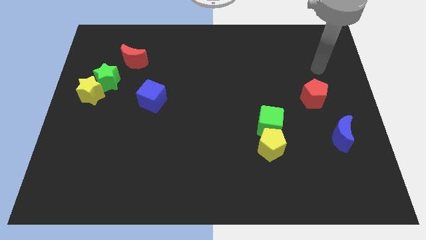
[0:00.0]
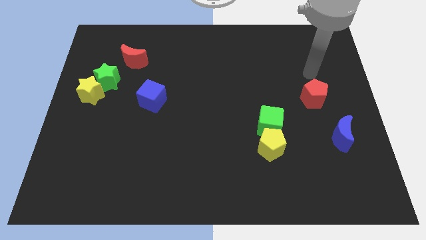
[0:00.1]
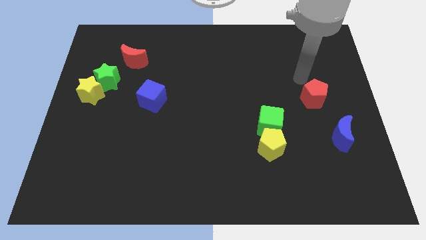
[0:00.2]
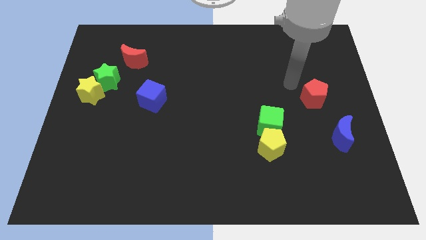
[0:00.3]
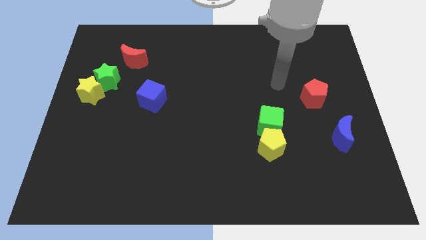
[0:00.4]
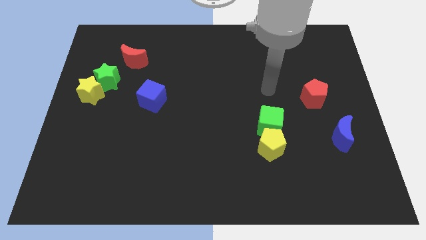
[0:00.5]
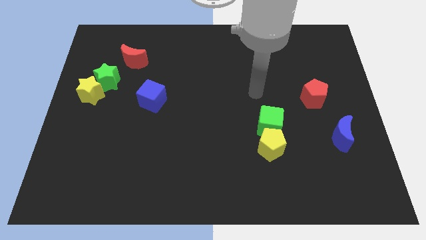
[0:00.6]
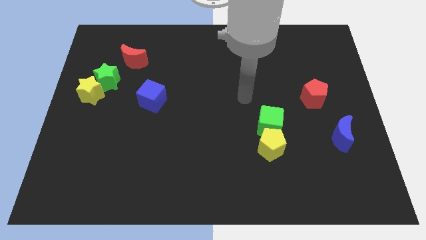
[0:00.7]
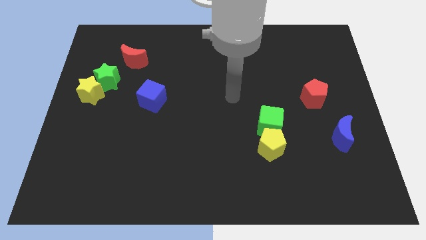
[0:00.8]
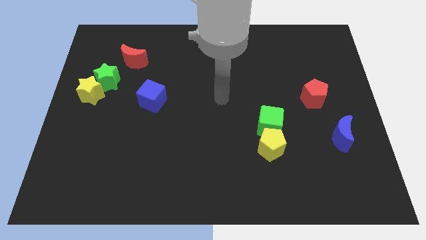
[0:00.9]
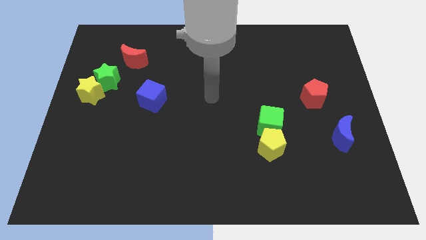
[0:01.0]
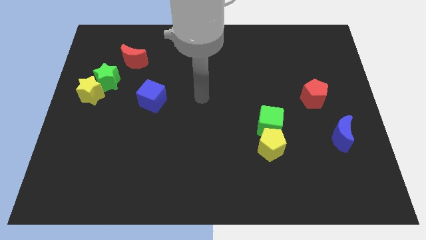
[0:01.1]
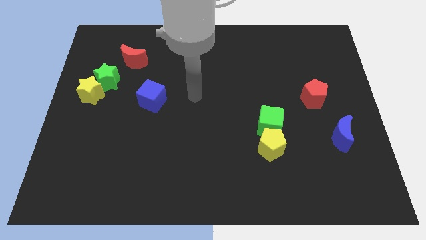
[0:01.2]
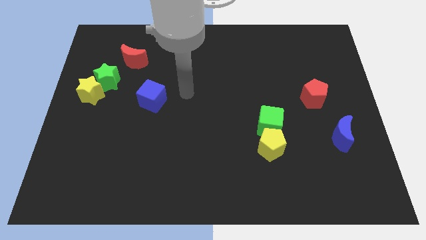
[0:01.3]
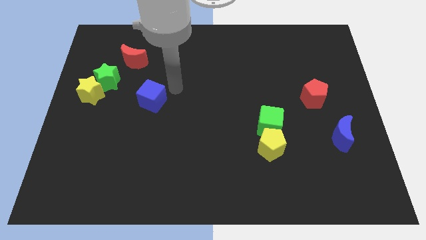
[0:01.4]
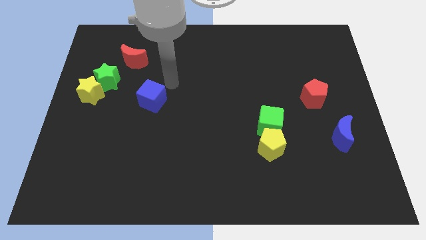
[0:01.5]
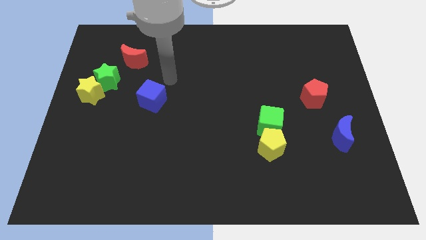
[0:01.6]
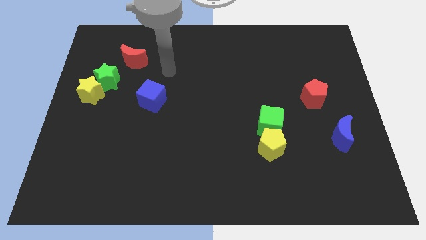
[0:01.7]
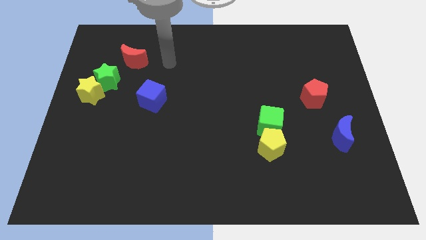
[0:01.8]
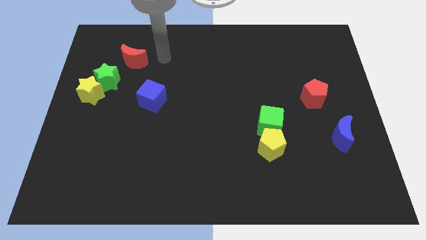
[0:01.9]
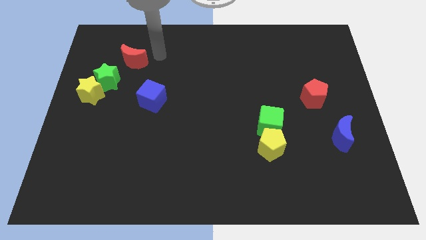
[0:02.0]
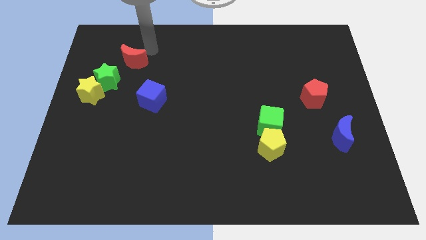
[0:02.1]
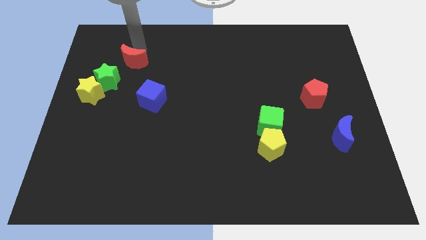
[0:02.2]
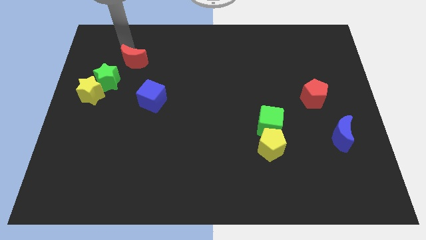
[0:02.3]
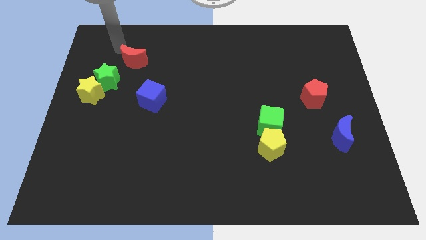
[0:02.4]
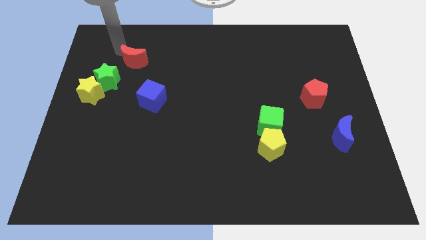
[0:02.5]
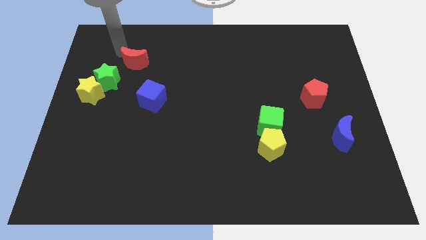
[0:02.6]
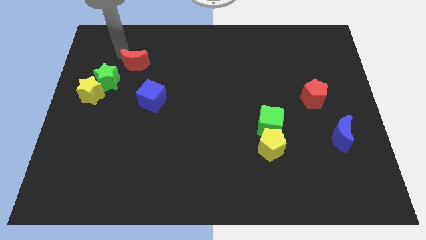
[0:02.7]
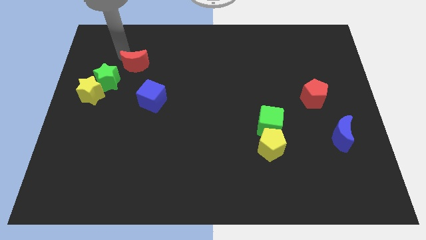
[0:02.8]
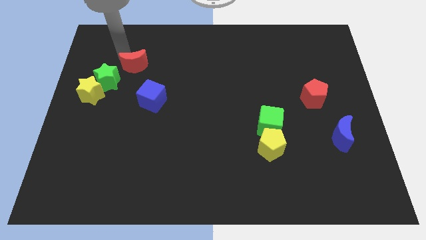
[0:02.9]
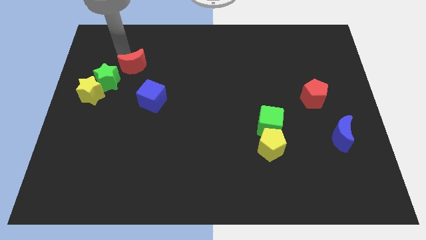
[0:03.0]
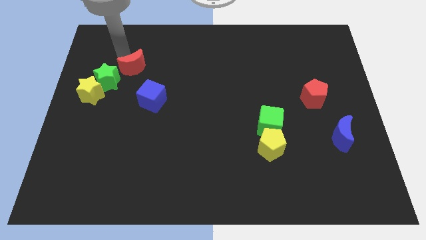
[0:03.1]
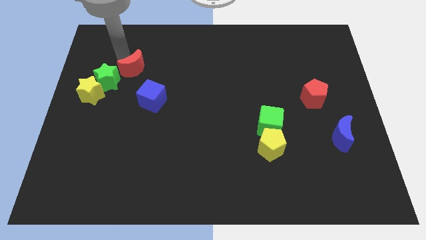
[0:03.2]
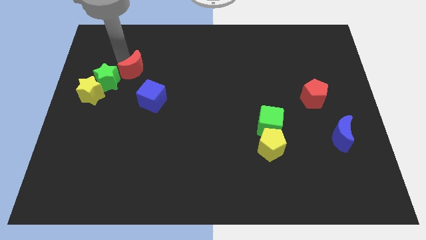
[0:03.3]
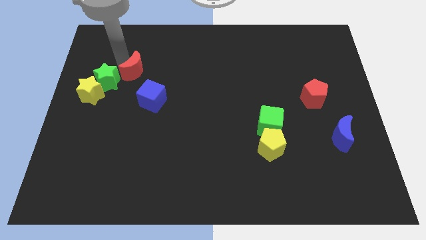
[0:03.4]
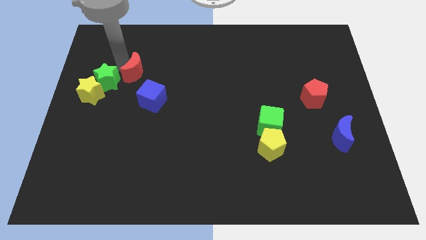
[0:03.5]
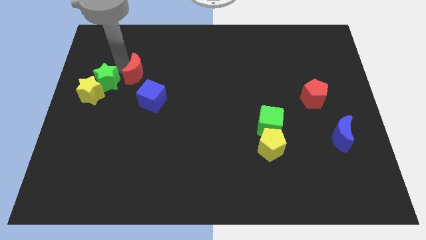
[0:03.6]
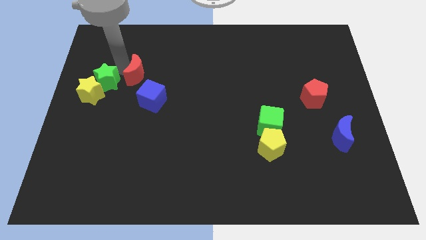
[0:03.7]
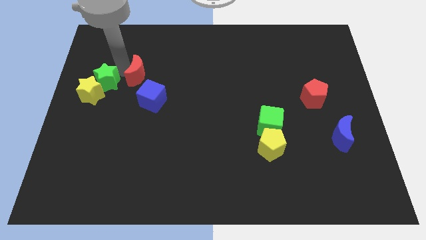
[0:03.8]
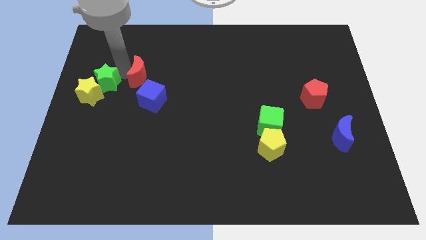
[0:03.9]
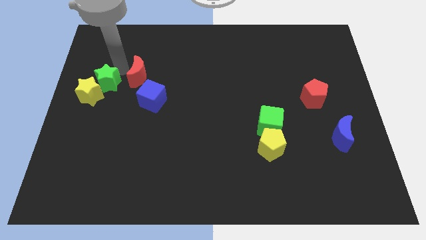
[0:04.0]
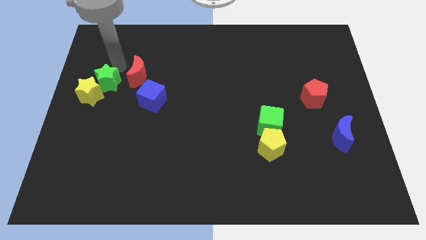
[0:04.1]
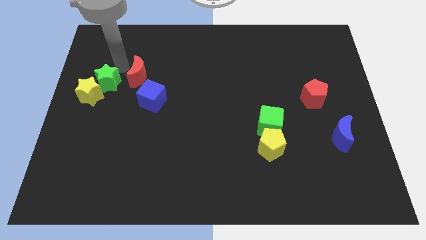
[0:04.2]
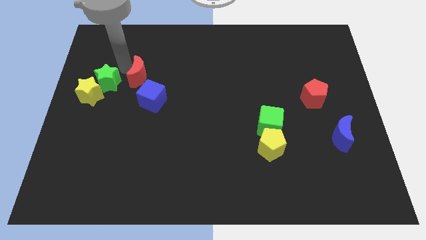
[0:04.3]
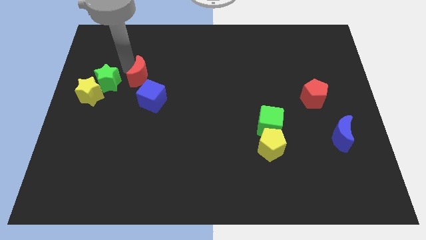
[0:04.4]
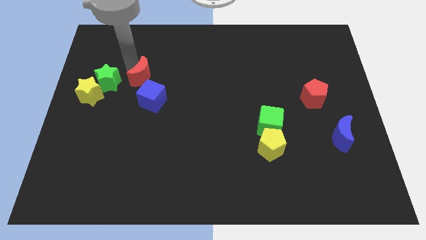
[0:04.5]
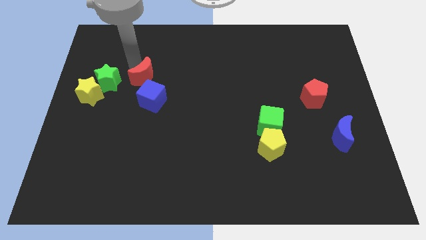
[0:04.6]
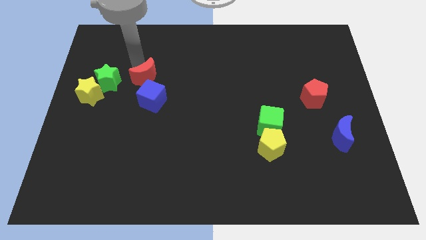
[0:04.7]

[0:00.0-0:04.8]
slightly push the red moon downwards and right

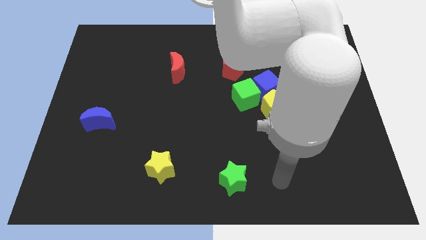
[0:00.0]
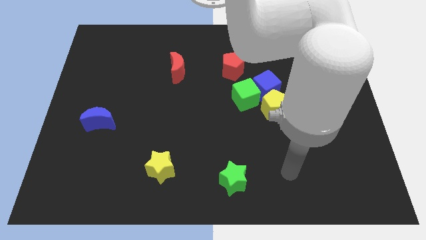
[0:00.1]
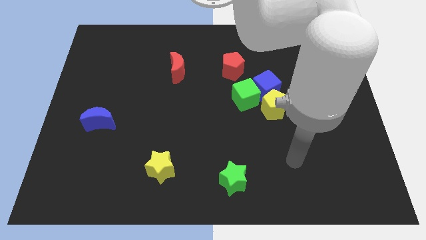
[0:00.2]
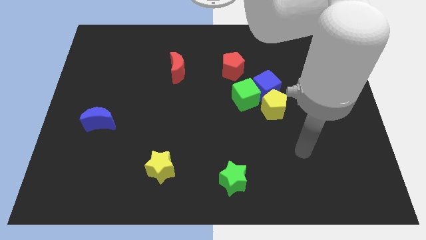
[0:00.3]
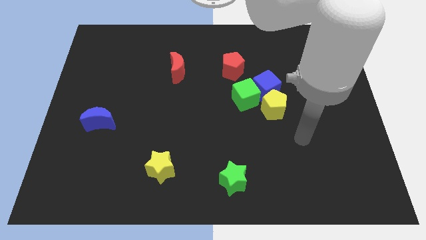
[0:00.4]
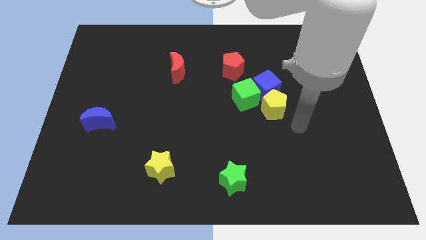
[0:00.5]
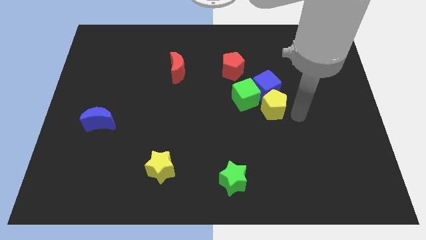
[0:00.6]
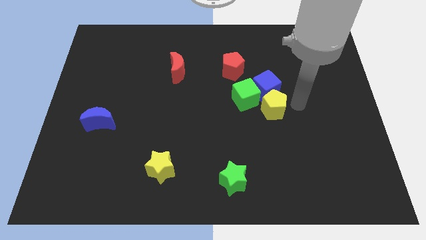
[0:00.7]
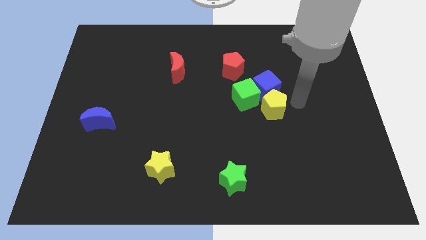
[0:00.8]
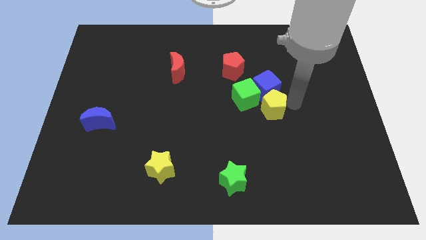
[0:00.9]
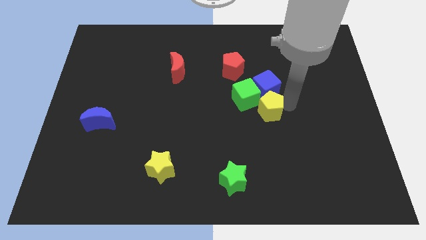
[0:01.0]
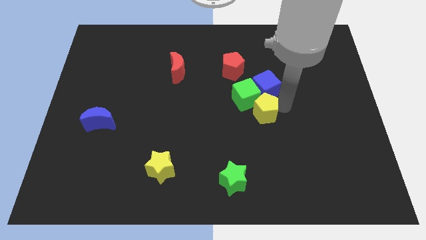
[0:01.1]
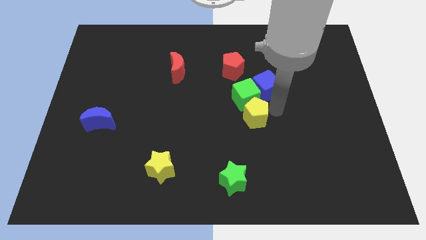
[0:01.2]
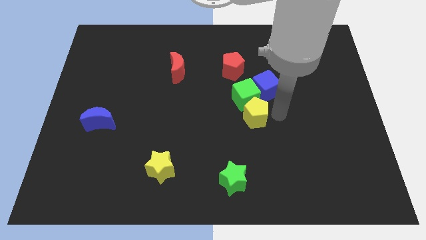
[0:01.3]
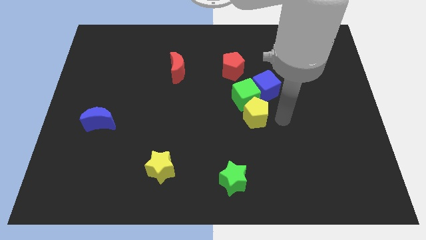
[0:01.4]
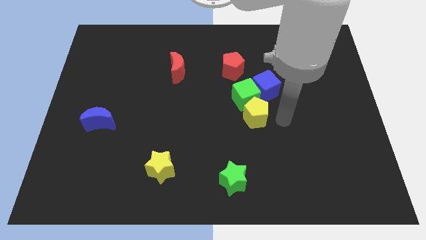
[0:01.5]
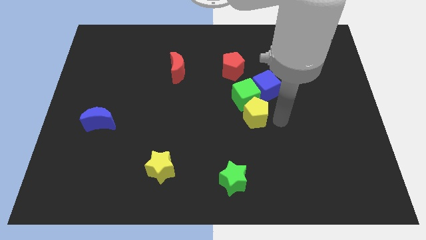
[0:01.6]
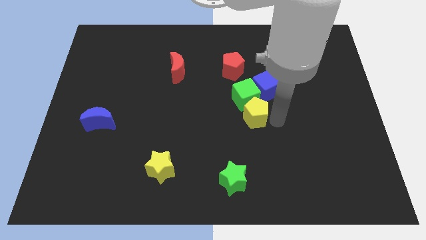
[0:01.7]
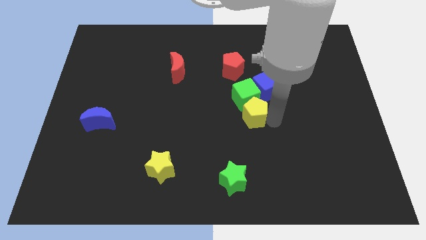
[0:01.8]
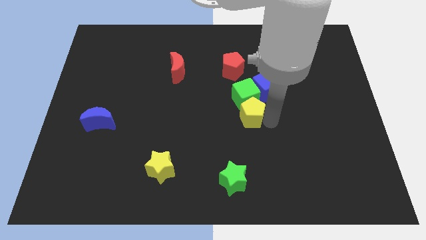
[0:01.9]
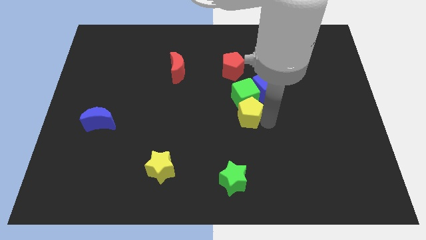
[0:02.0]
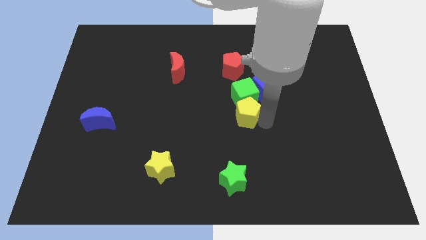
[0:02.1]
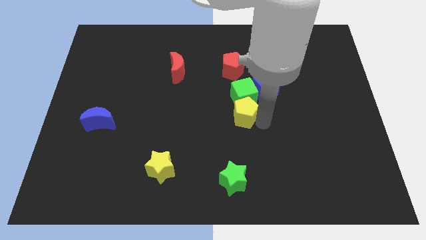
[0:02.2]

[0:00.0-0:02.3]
slide the yellow pentagon a little to the left

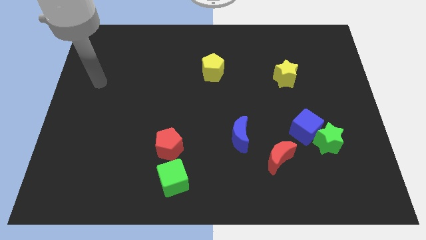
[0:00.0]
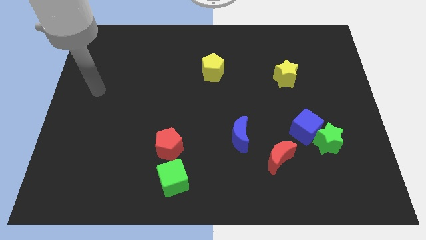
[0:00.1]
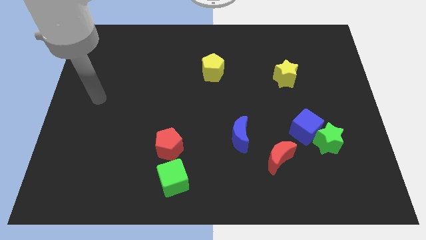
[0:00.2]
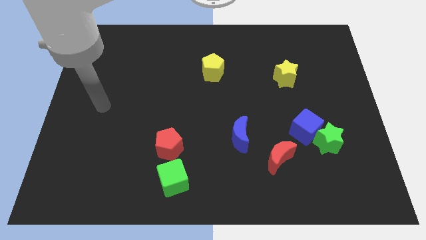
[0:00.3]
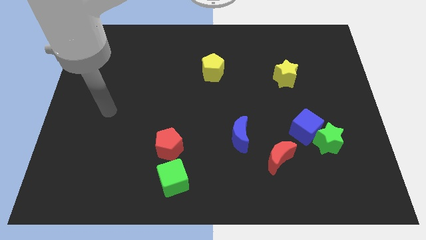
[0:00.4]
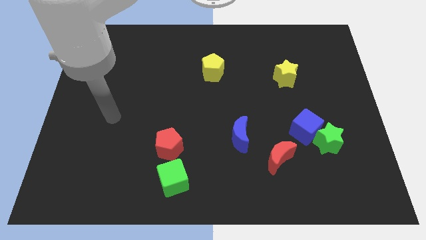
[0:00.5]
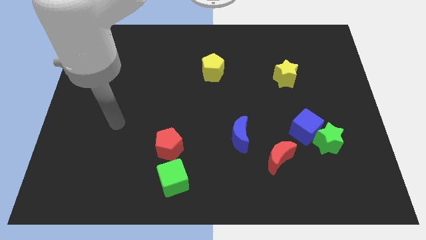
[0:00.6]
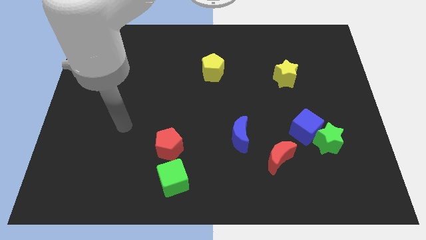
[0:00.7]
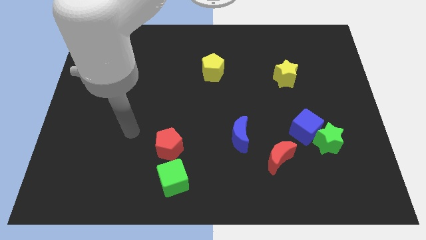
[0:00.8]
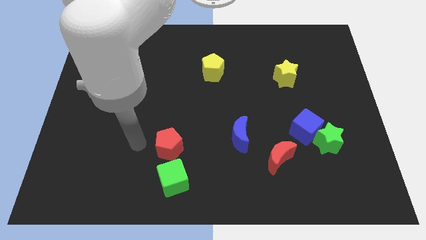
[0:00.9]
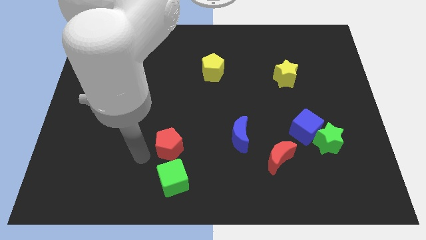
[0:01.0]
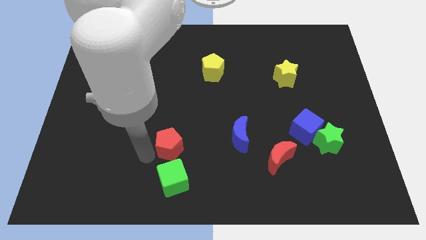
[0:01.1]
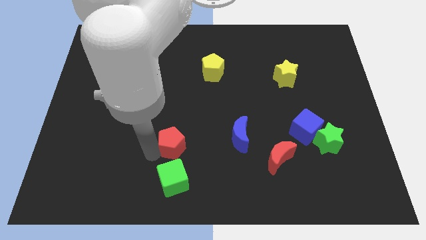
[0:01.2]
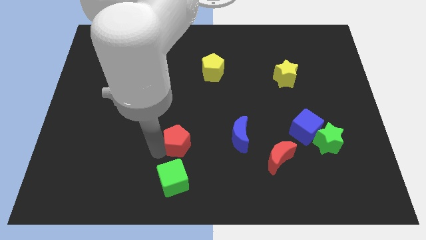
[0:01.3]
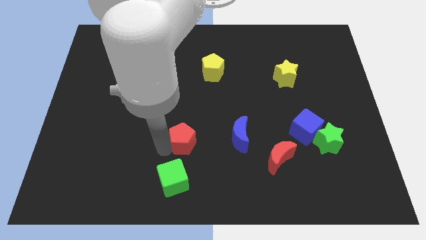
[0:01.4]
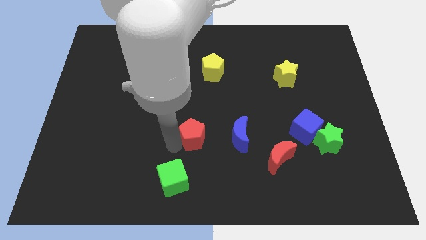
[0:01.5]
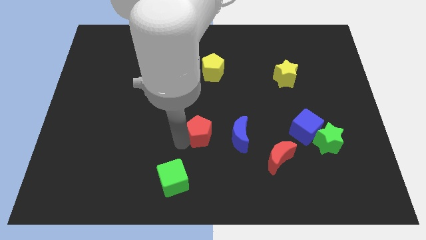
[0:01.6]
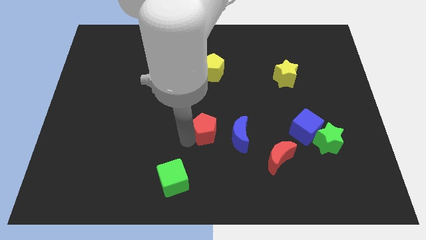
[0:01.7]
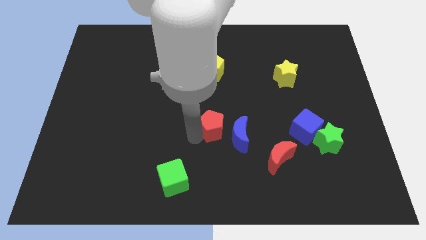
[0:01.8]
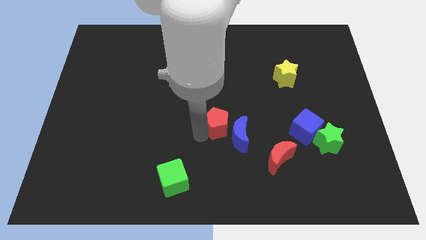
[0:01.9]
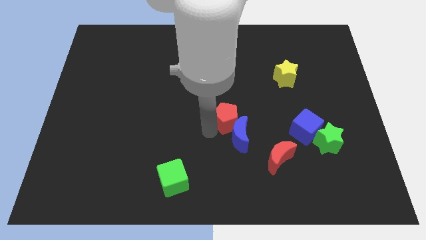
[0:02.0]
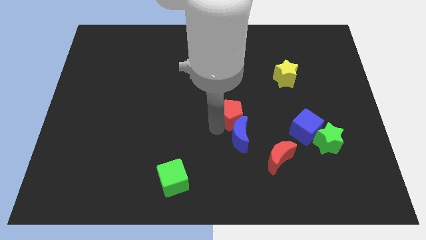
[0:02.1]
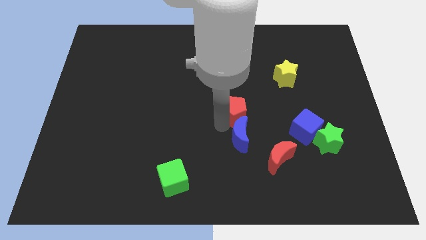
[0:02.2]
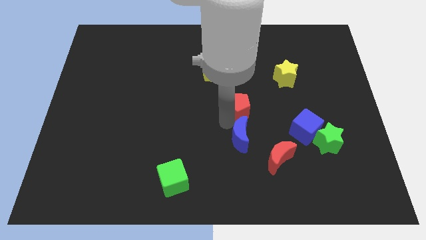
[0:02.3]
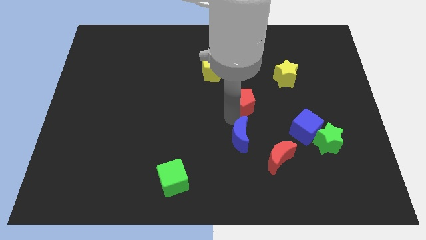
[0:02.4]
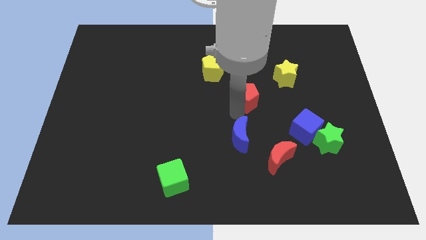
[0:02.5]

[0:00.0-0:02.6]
slide the red pentagon up and then right
